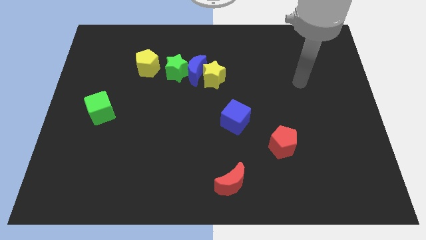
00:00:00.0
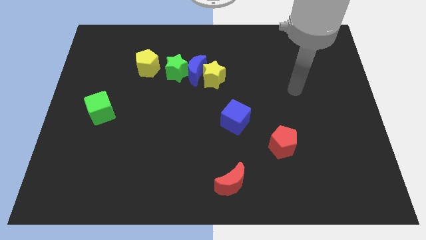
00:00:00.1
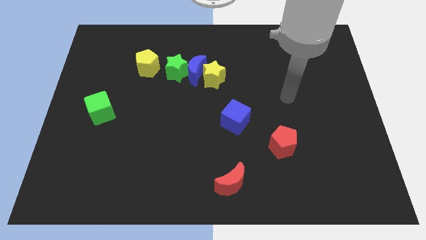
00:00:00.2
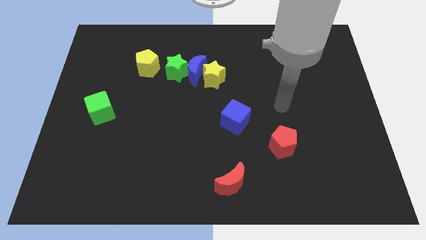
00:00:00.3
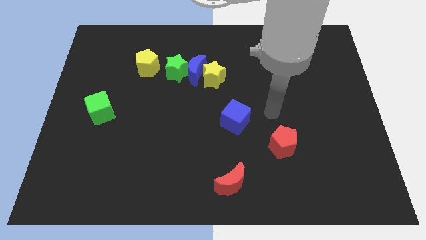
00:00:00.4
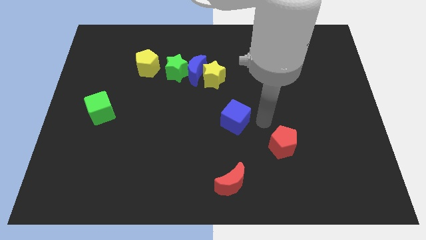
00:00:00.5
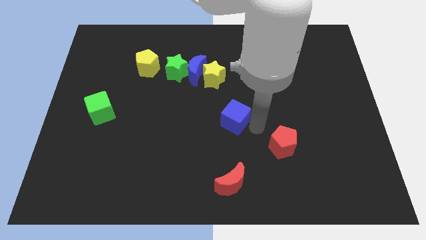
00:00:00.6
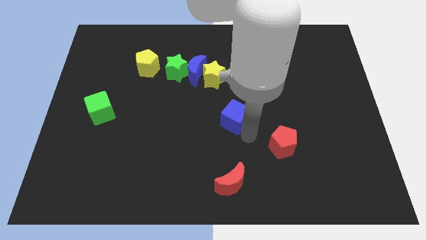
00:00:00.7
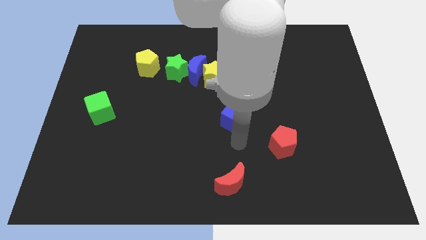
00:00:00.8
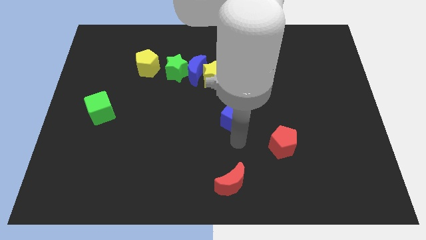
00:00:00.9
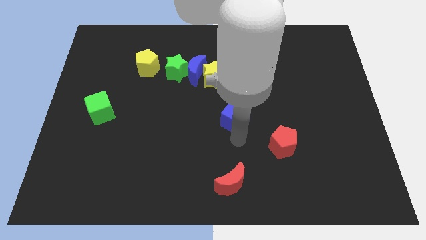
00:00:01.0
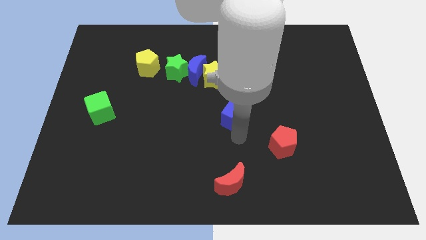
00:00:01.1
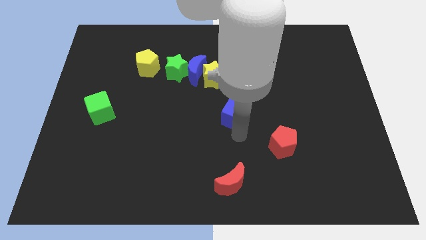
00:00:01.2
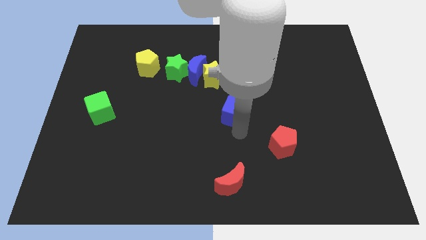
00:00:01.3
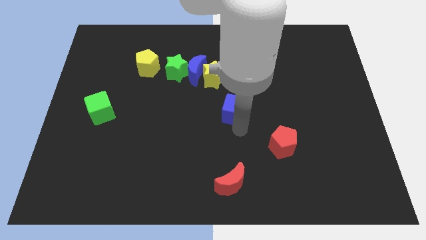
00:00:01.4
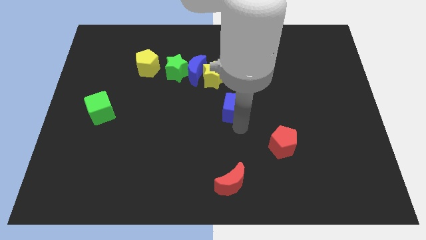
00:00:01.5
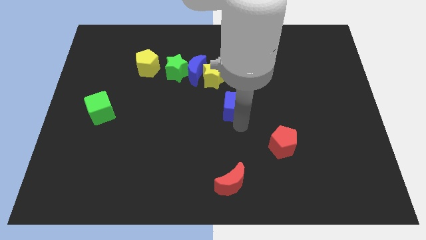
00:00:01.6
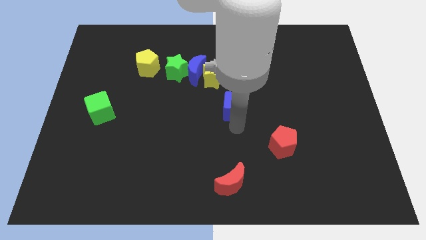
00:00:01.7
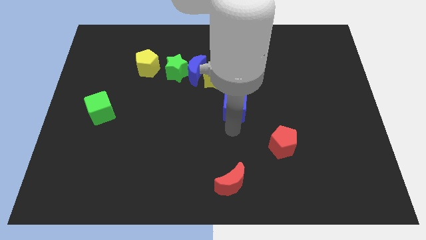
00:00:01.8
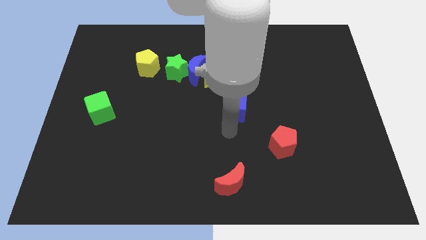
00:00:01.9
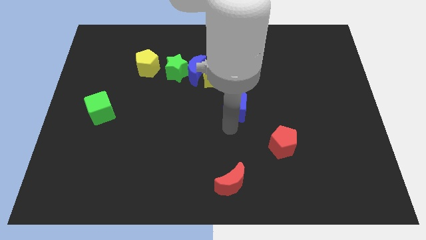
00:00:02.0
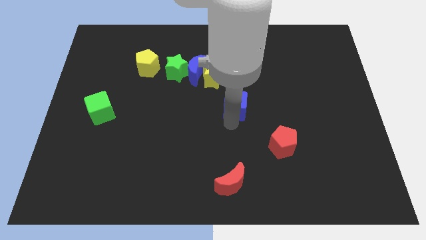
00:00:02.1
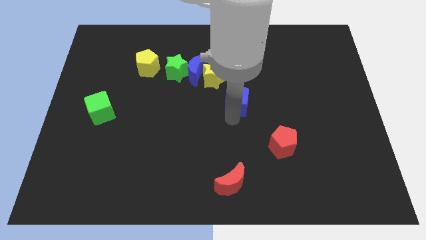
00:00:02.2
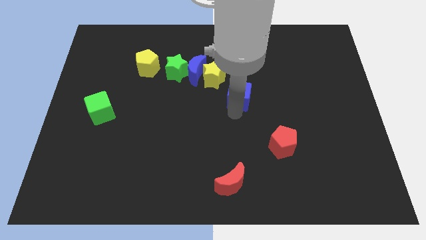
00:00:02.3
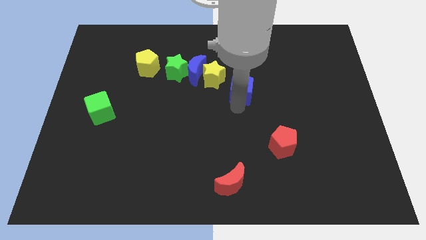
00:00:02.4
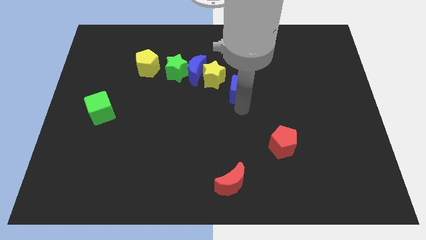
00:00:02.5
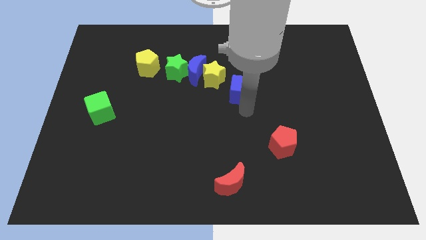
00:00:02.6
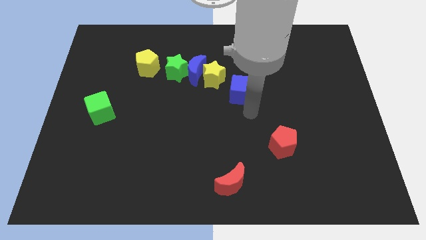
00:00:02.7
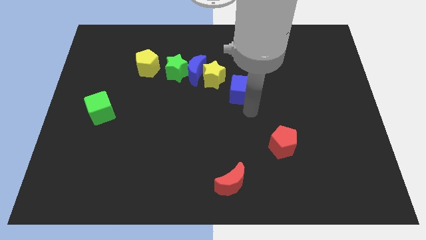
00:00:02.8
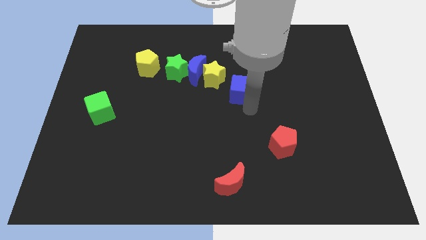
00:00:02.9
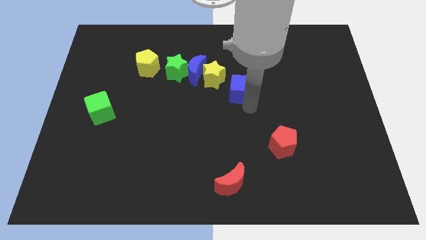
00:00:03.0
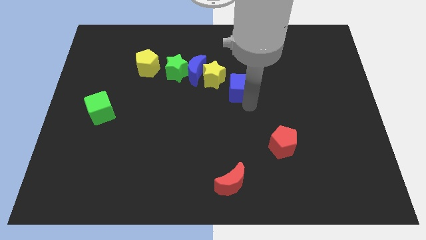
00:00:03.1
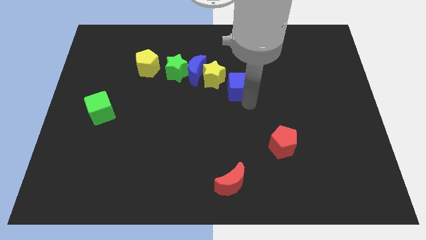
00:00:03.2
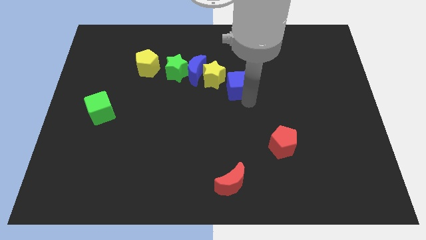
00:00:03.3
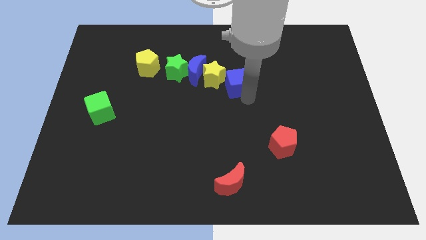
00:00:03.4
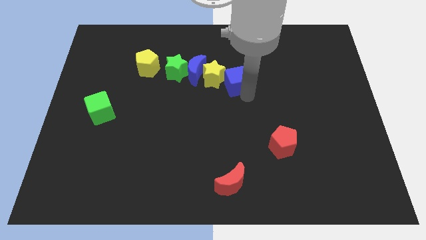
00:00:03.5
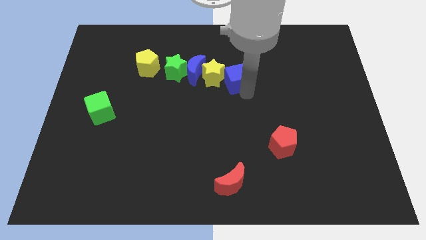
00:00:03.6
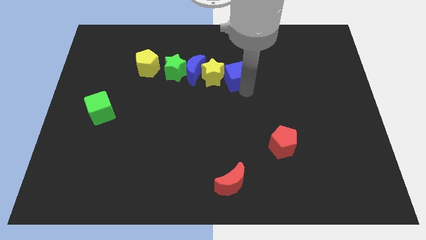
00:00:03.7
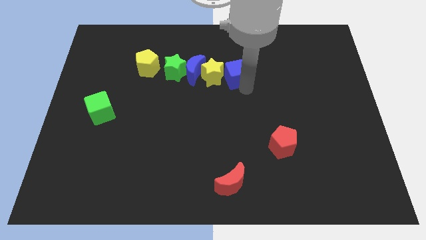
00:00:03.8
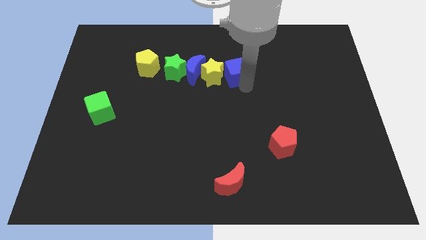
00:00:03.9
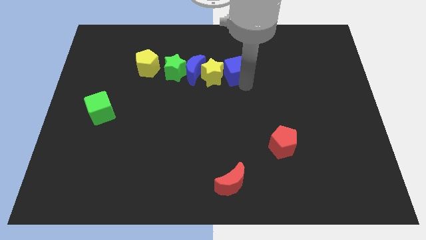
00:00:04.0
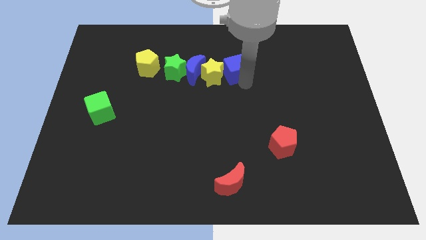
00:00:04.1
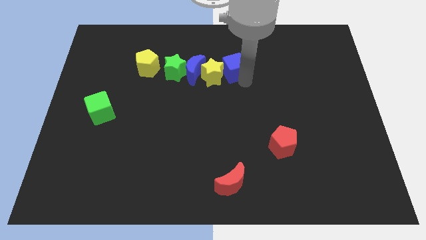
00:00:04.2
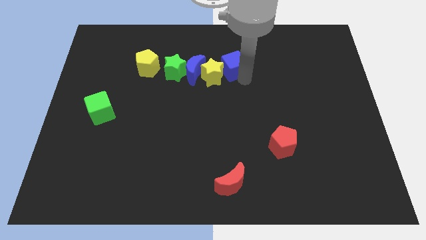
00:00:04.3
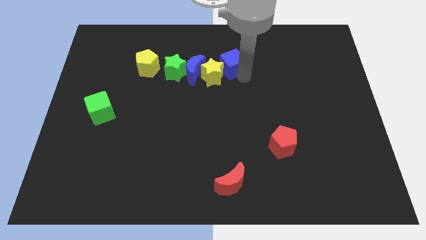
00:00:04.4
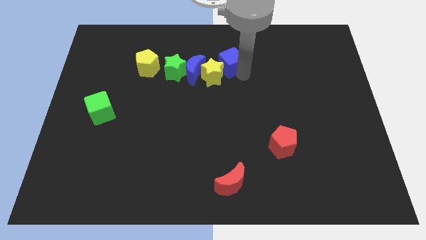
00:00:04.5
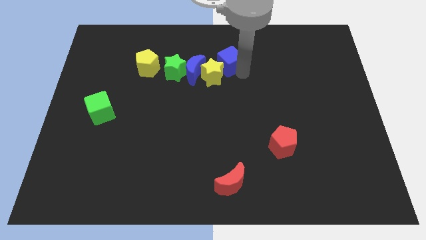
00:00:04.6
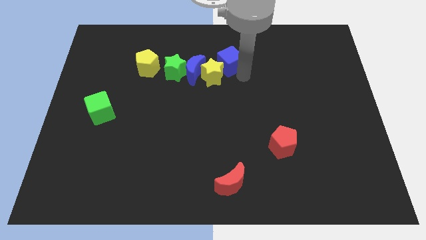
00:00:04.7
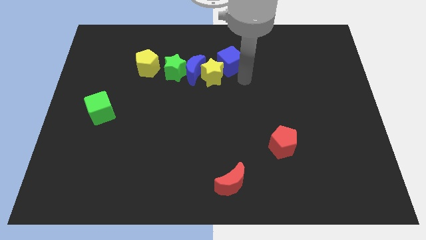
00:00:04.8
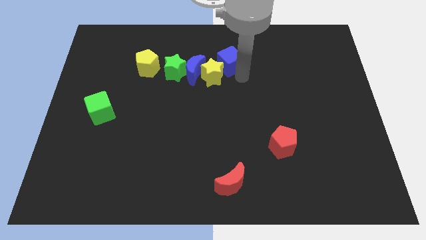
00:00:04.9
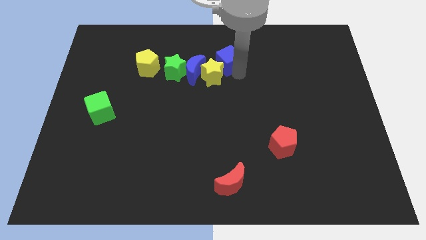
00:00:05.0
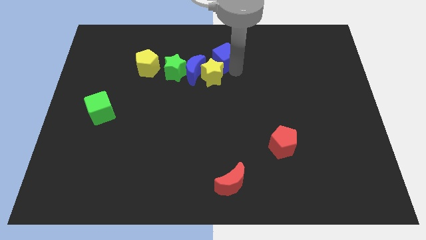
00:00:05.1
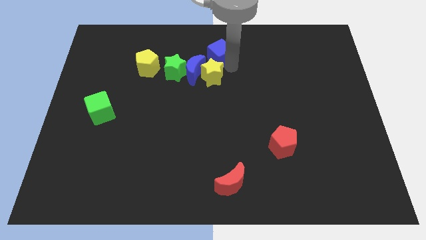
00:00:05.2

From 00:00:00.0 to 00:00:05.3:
push the blue cube to the top side

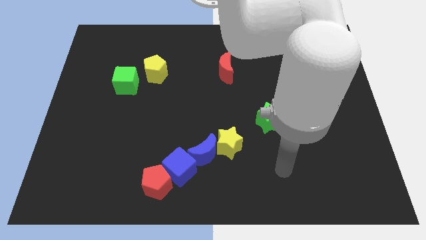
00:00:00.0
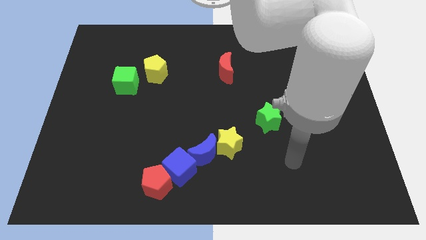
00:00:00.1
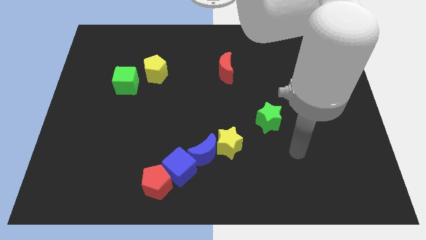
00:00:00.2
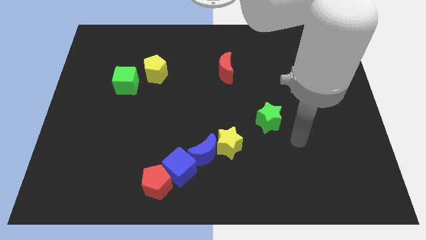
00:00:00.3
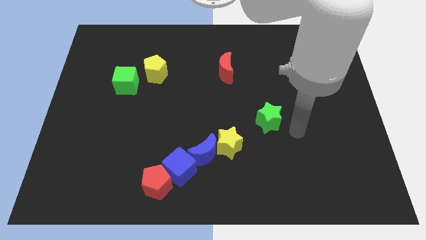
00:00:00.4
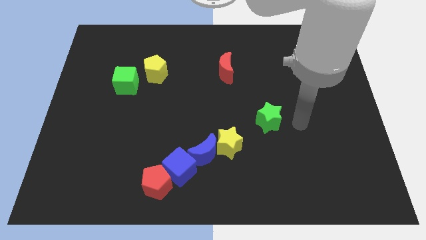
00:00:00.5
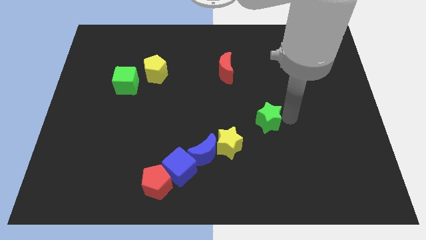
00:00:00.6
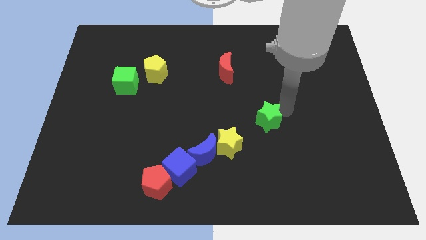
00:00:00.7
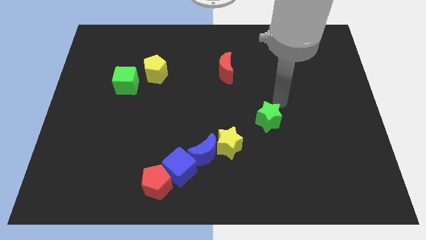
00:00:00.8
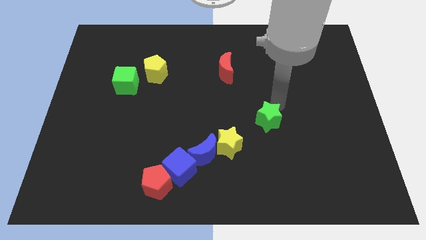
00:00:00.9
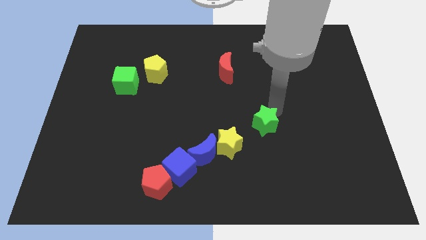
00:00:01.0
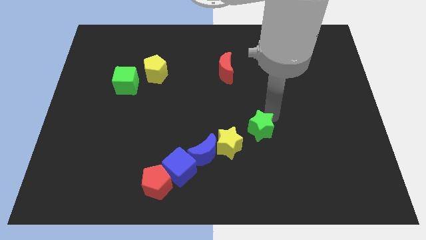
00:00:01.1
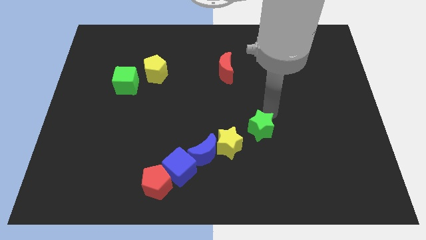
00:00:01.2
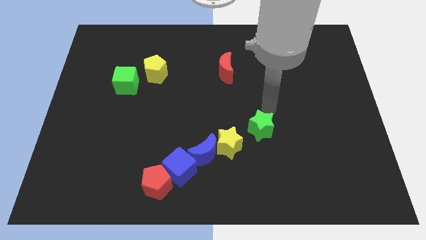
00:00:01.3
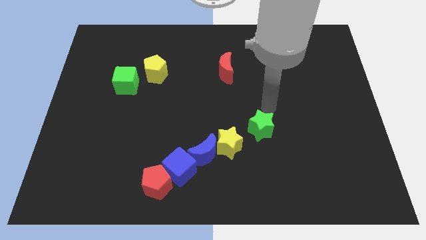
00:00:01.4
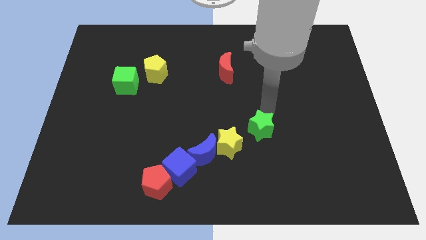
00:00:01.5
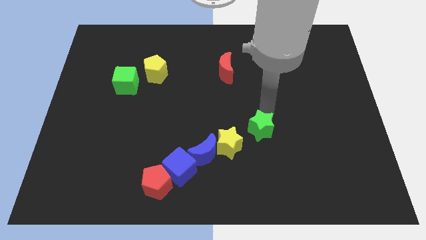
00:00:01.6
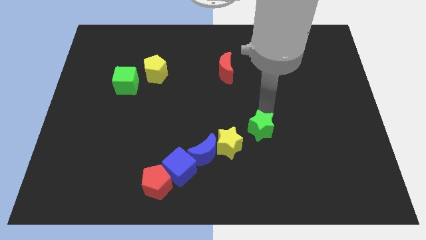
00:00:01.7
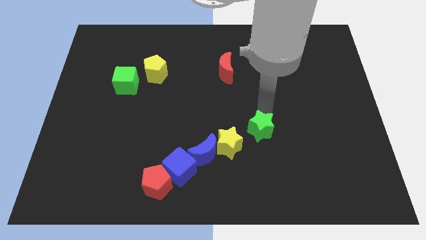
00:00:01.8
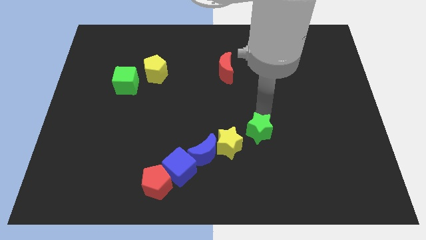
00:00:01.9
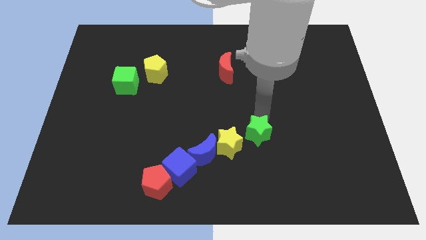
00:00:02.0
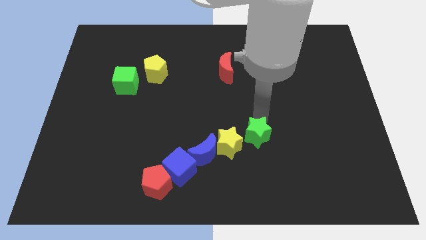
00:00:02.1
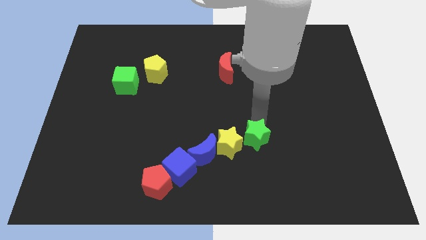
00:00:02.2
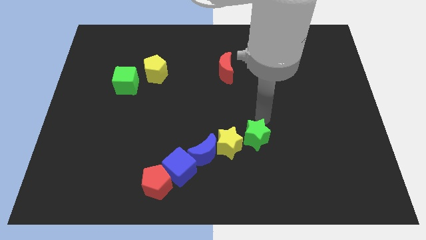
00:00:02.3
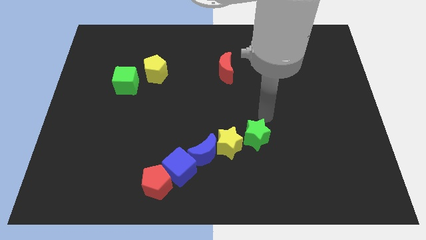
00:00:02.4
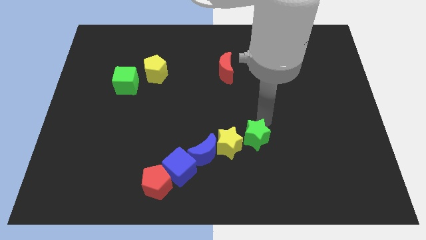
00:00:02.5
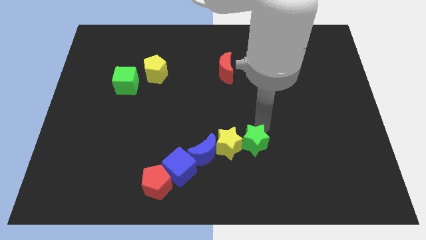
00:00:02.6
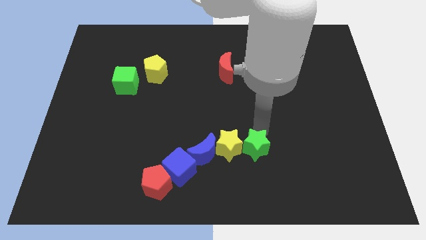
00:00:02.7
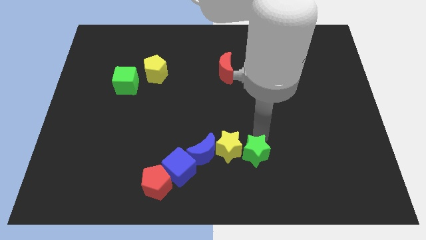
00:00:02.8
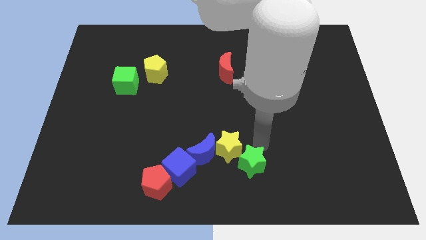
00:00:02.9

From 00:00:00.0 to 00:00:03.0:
put the green star to the bottom
